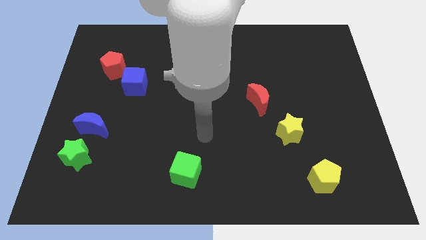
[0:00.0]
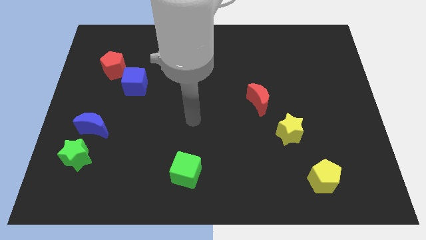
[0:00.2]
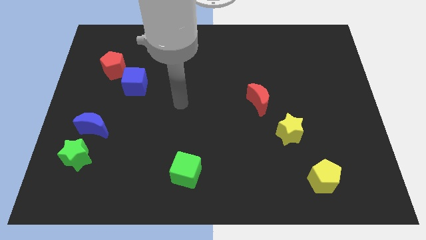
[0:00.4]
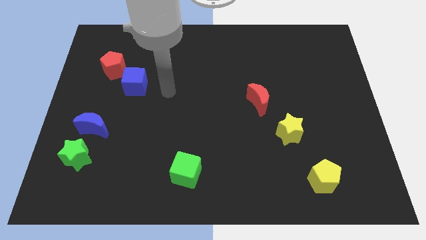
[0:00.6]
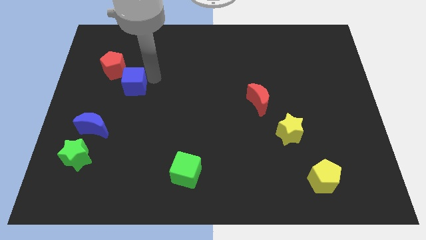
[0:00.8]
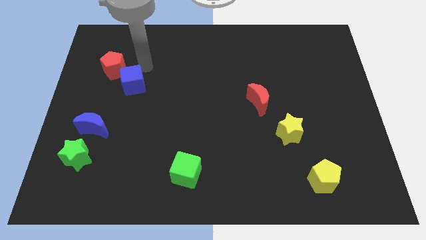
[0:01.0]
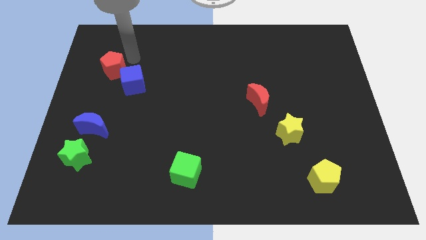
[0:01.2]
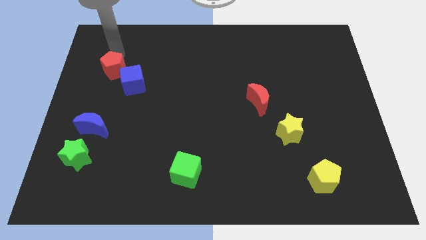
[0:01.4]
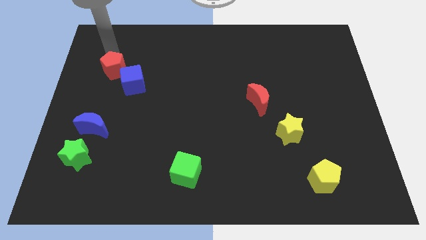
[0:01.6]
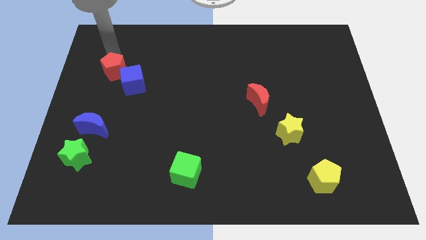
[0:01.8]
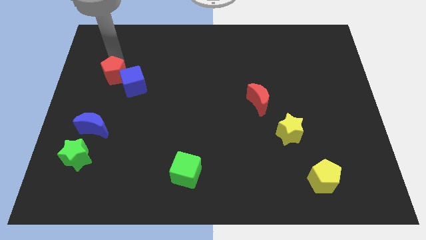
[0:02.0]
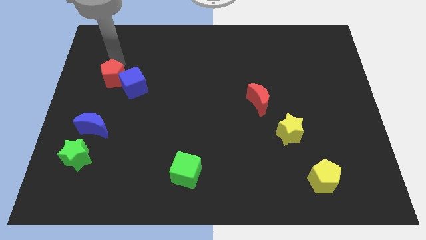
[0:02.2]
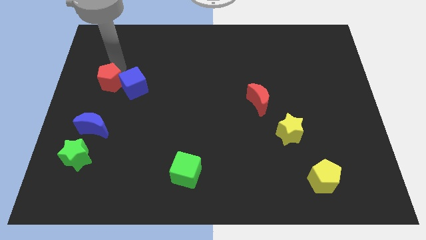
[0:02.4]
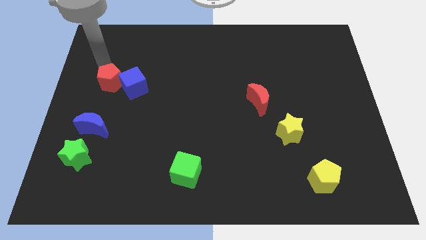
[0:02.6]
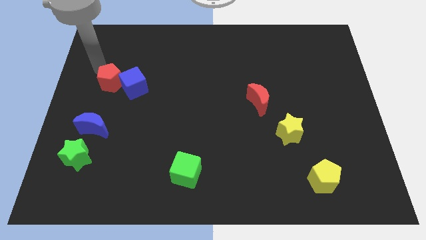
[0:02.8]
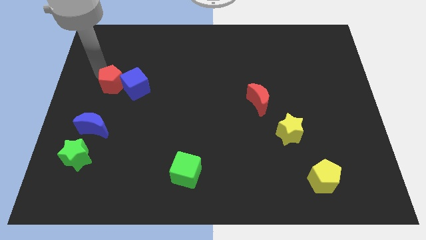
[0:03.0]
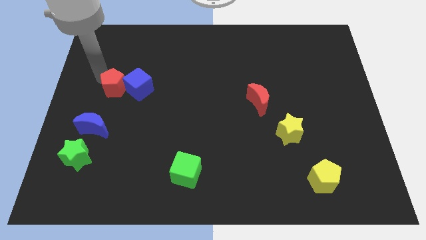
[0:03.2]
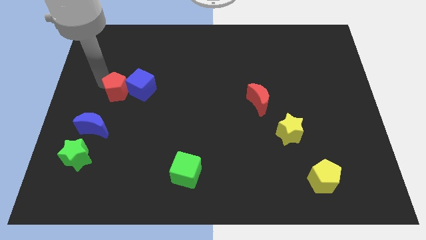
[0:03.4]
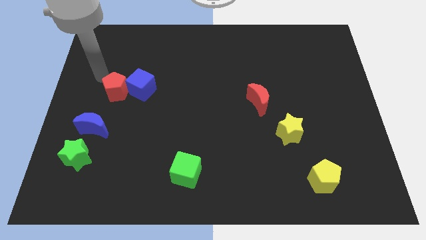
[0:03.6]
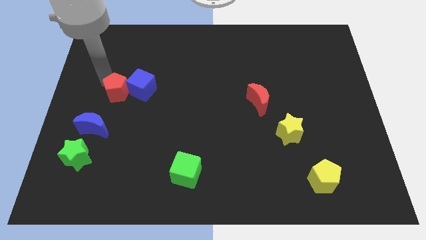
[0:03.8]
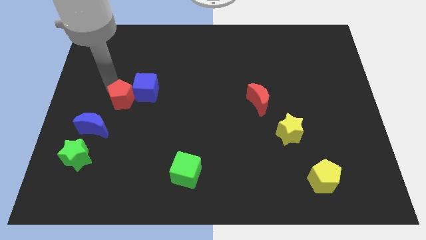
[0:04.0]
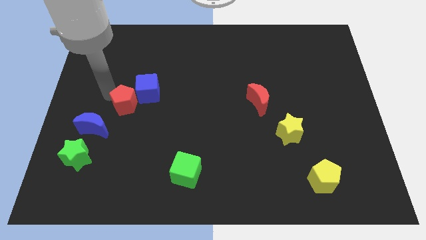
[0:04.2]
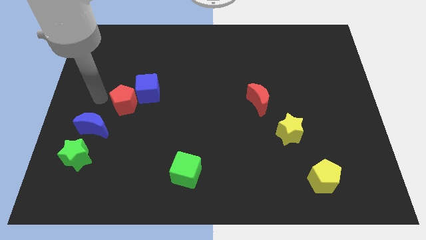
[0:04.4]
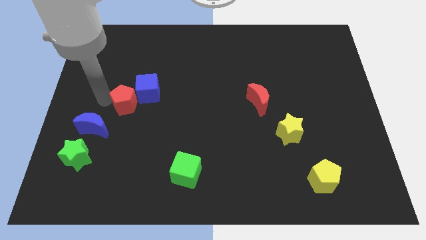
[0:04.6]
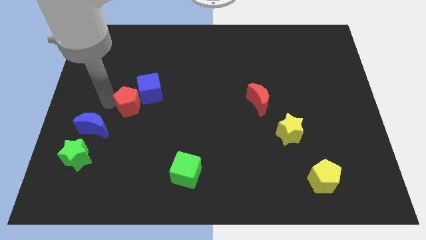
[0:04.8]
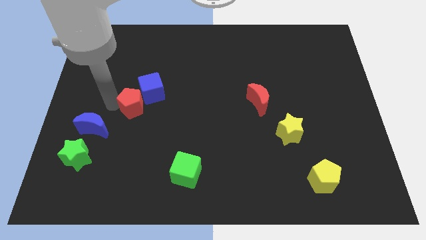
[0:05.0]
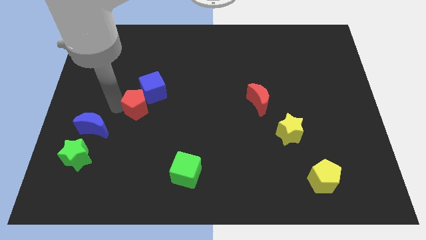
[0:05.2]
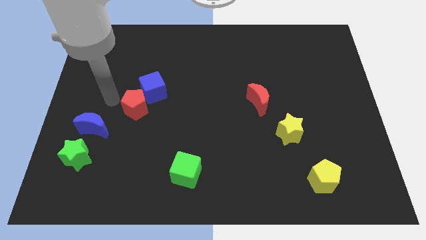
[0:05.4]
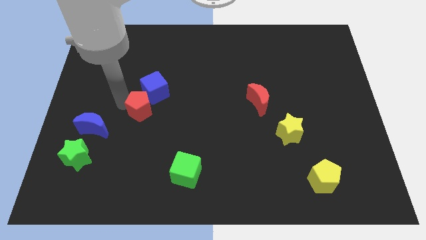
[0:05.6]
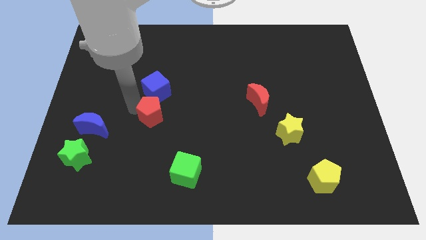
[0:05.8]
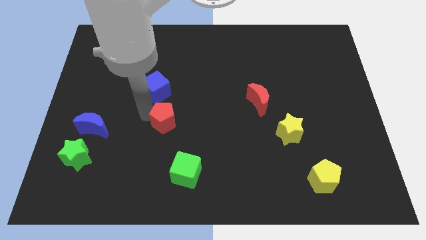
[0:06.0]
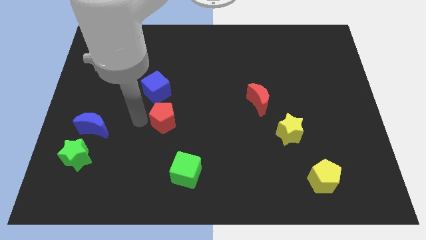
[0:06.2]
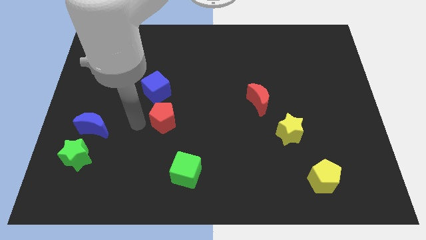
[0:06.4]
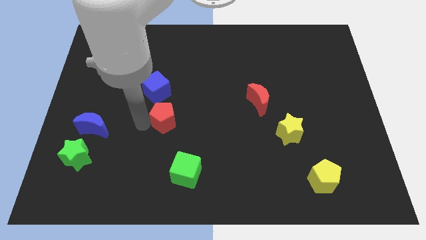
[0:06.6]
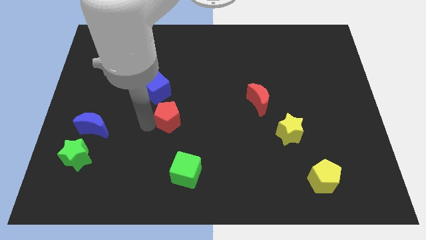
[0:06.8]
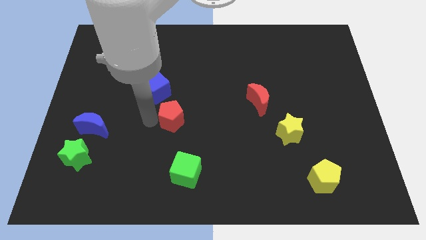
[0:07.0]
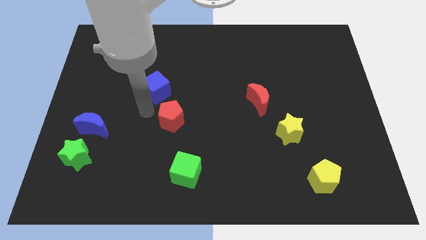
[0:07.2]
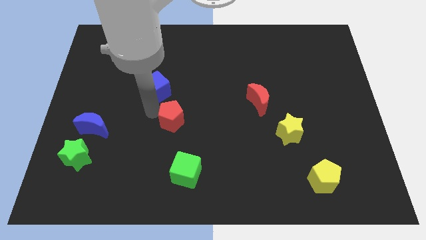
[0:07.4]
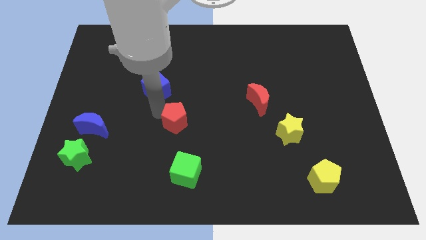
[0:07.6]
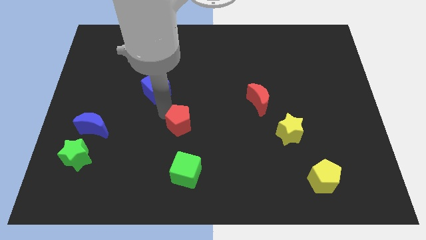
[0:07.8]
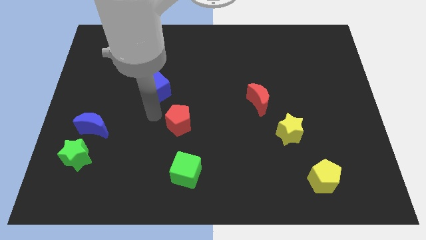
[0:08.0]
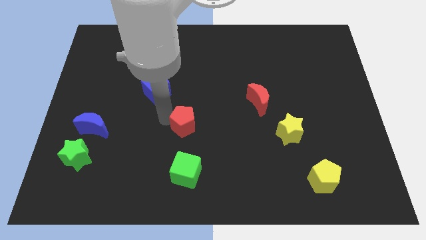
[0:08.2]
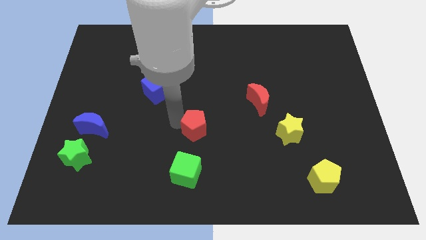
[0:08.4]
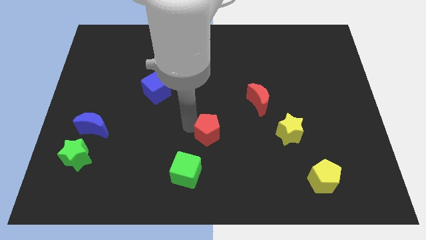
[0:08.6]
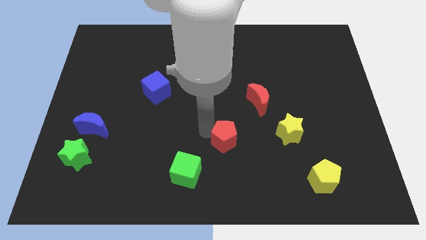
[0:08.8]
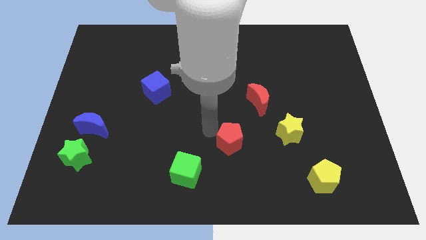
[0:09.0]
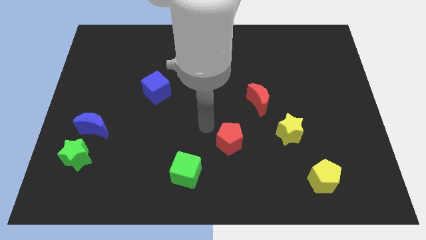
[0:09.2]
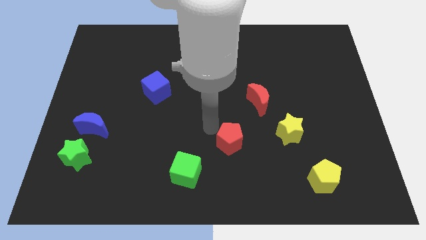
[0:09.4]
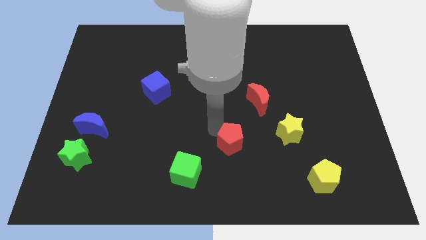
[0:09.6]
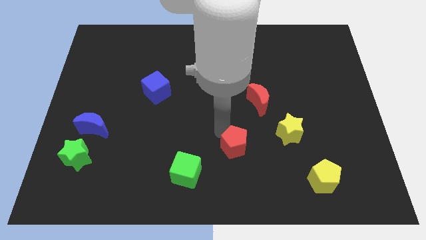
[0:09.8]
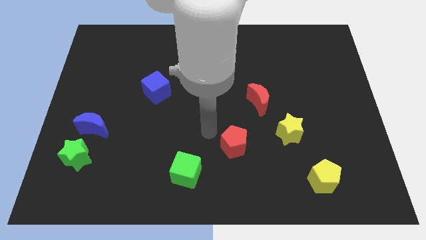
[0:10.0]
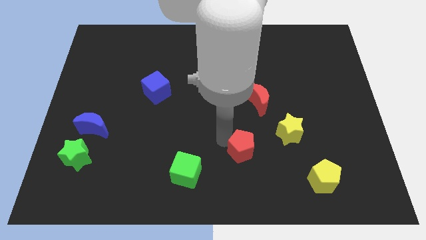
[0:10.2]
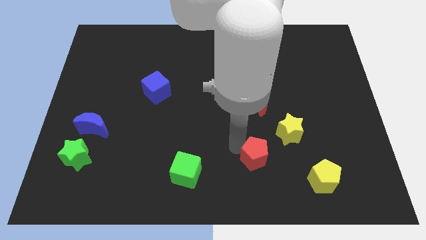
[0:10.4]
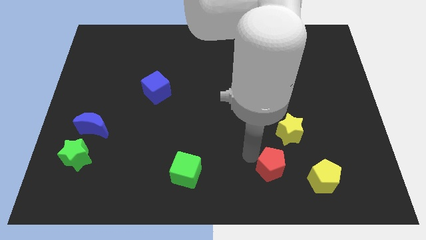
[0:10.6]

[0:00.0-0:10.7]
move the red pentagon below the yellow star

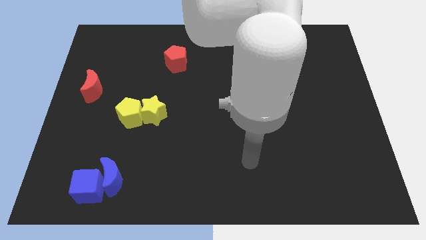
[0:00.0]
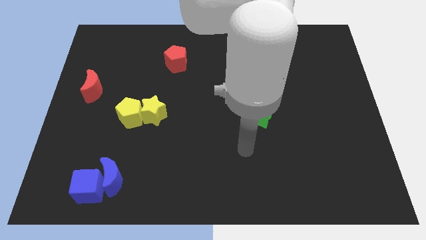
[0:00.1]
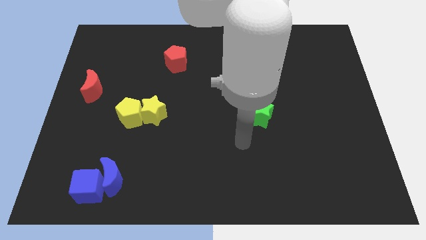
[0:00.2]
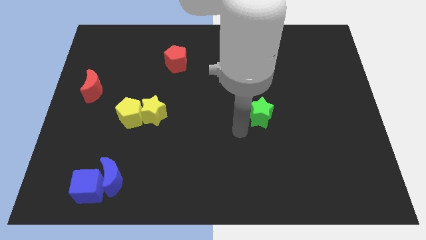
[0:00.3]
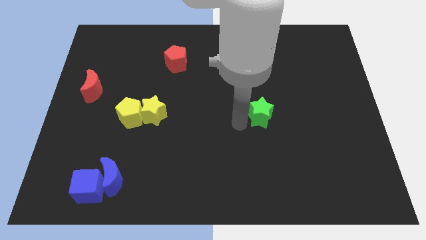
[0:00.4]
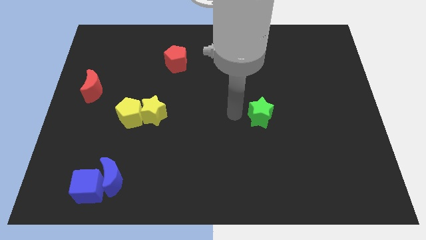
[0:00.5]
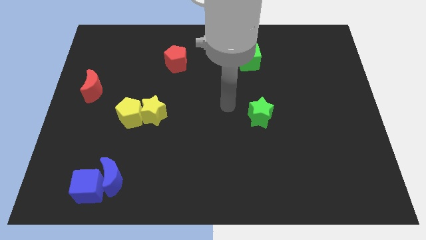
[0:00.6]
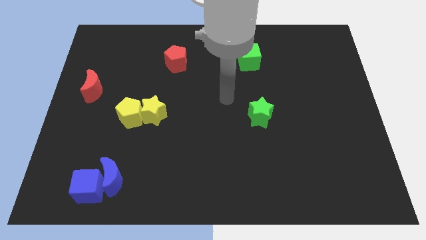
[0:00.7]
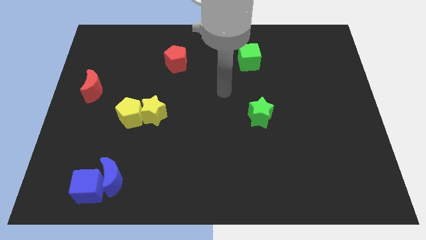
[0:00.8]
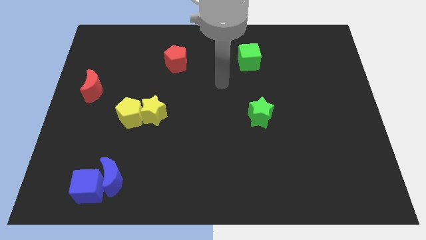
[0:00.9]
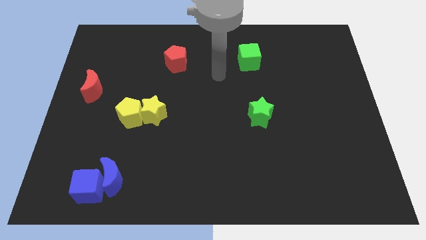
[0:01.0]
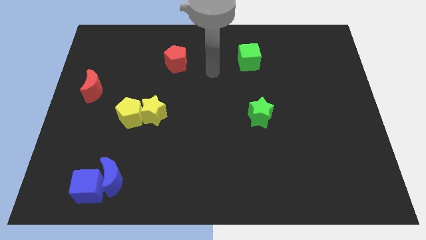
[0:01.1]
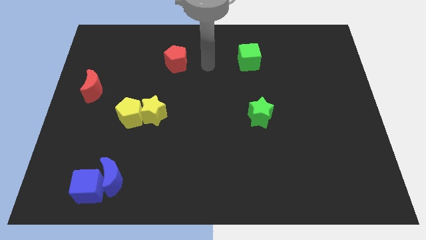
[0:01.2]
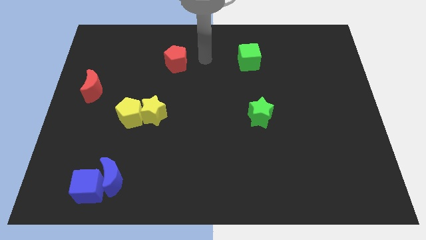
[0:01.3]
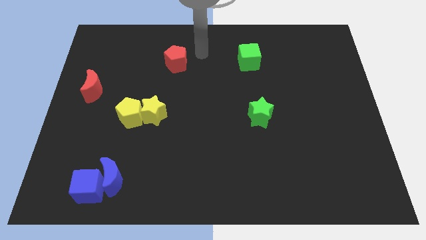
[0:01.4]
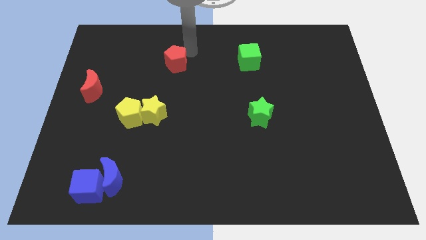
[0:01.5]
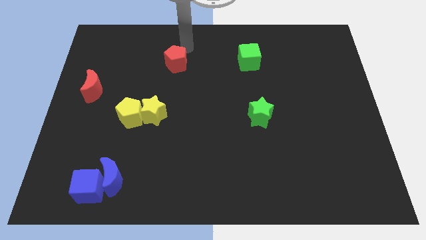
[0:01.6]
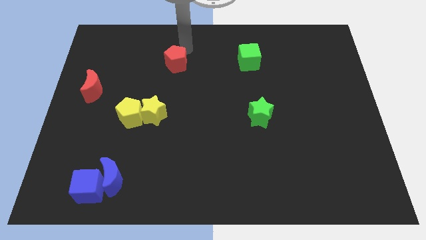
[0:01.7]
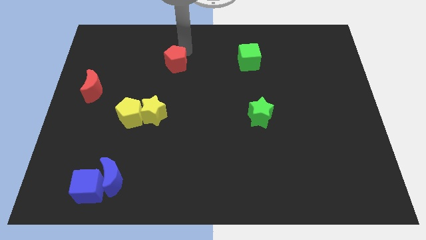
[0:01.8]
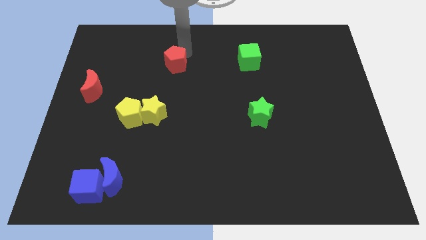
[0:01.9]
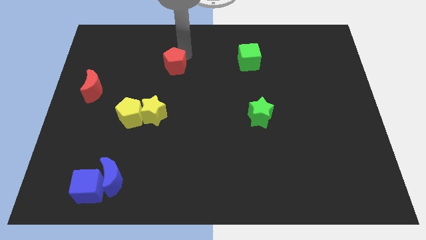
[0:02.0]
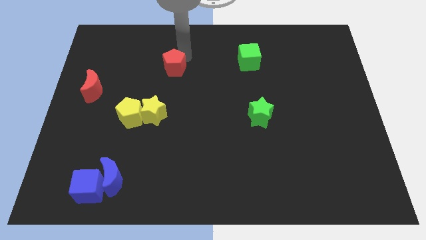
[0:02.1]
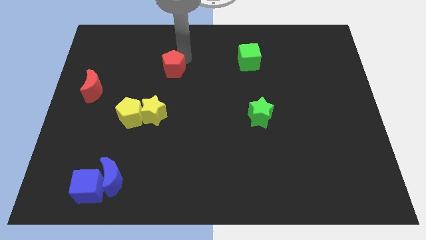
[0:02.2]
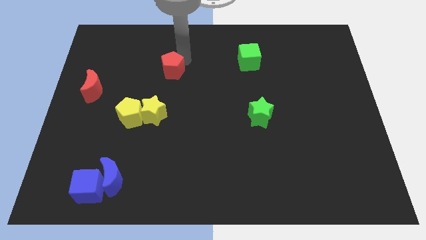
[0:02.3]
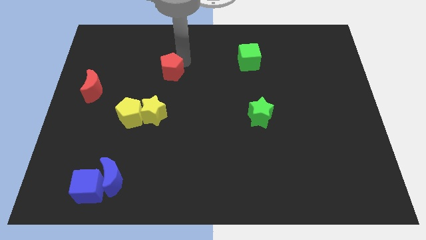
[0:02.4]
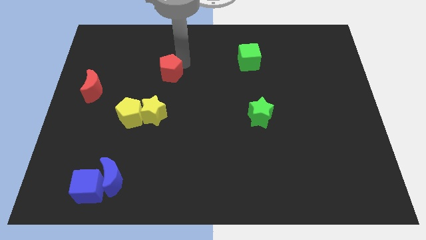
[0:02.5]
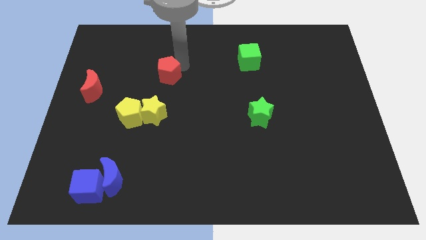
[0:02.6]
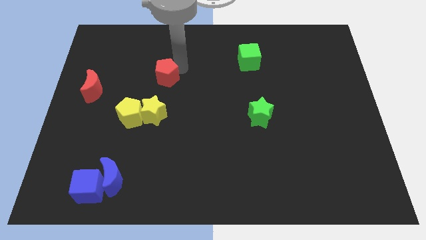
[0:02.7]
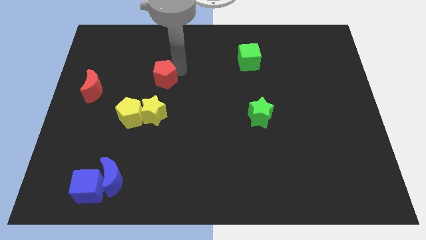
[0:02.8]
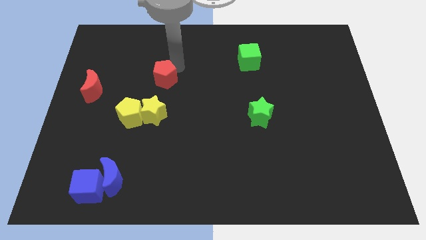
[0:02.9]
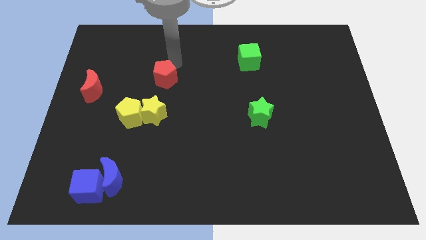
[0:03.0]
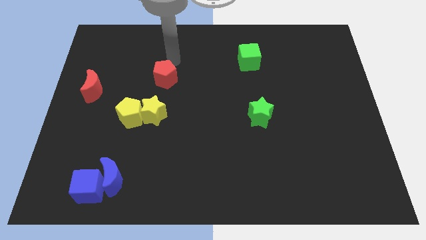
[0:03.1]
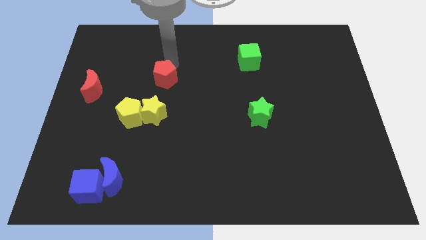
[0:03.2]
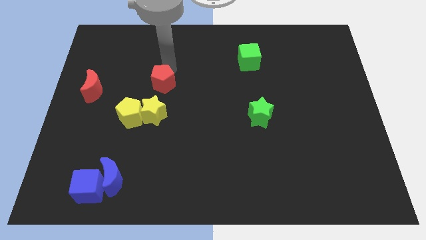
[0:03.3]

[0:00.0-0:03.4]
slide the red pentagon to the top right side of the yellow pentagon
